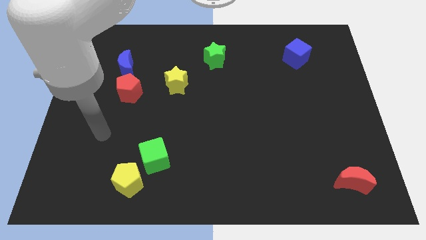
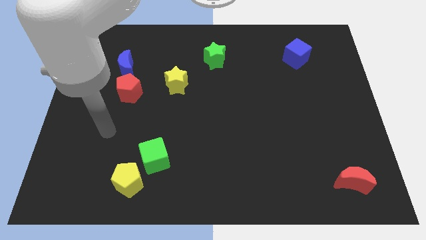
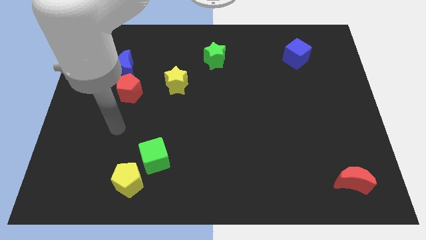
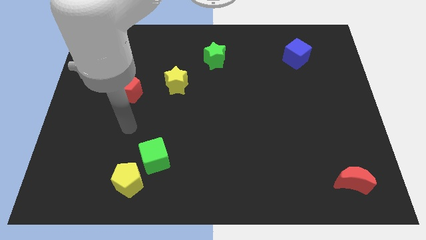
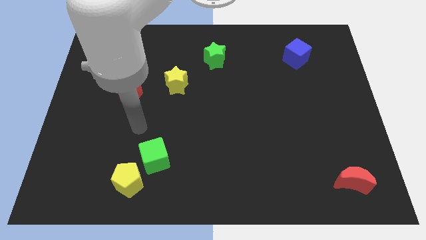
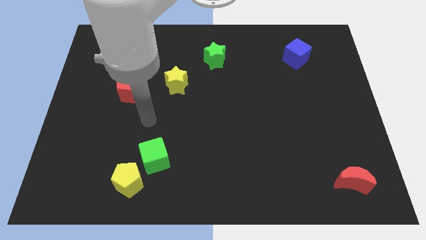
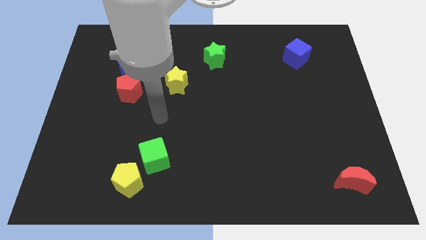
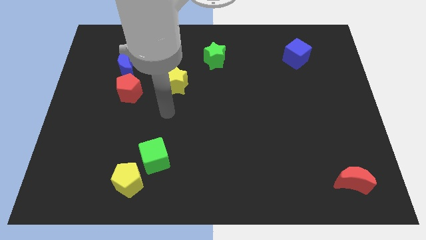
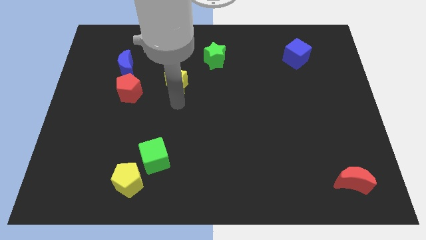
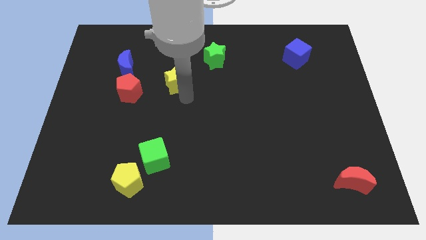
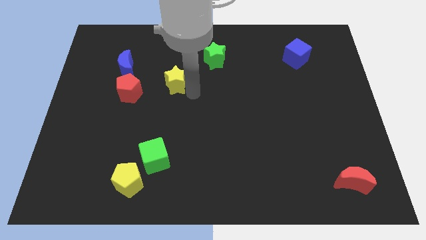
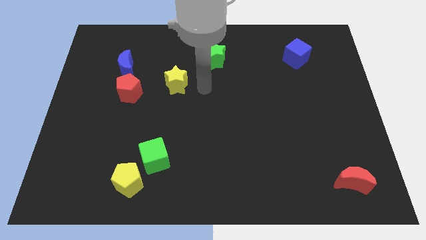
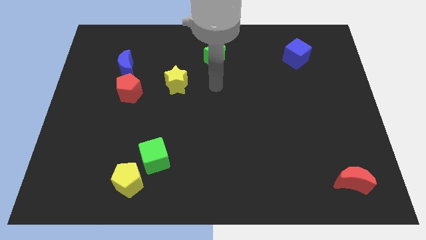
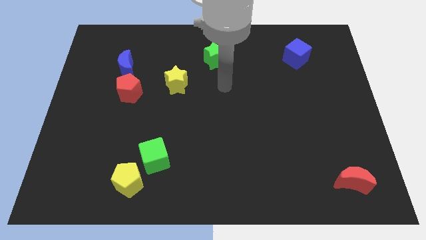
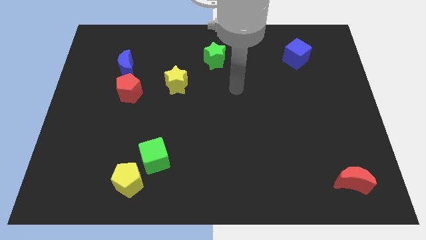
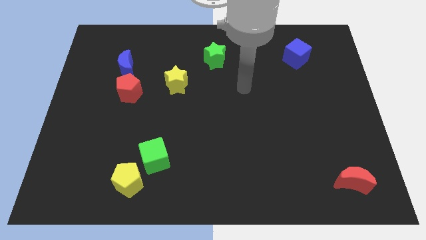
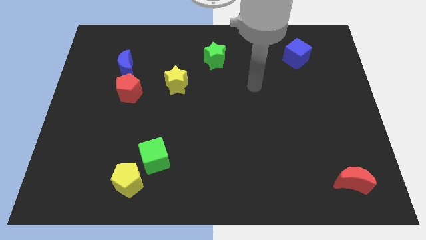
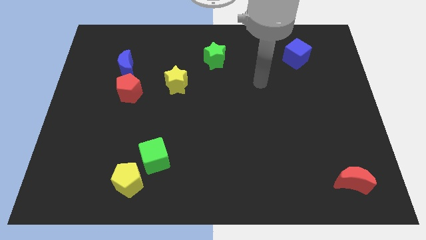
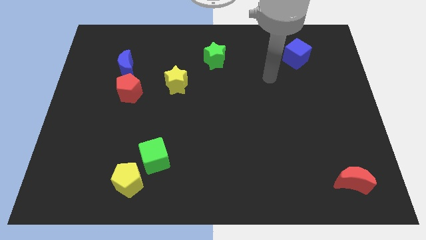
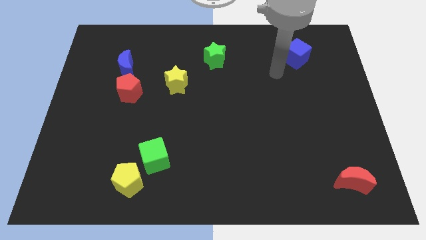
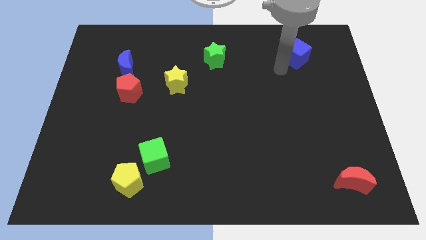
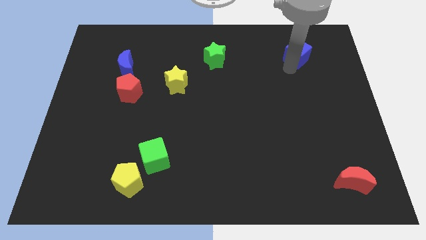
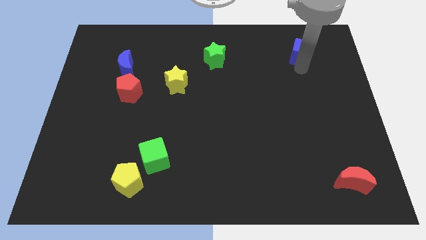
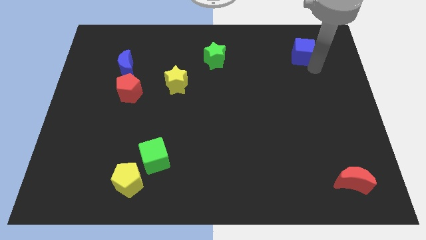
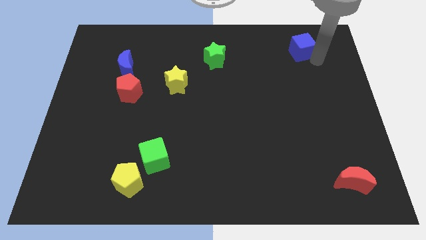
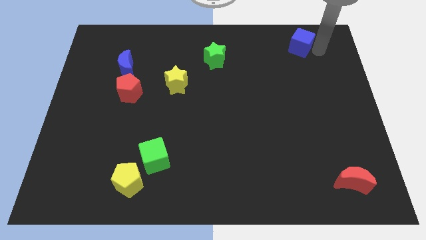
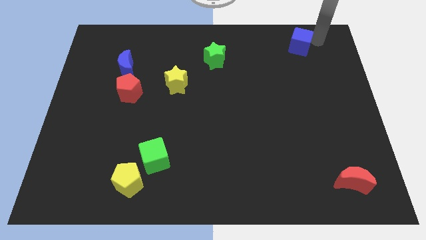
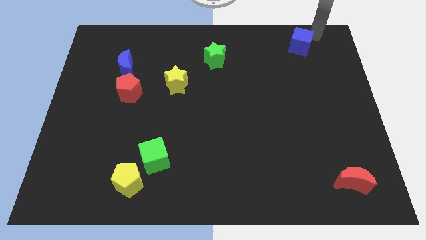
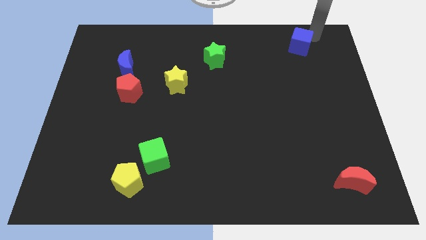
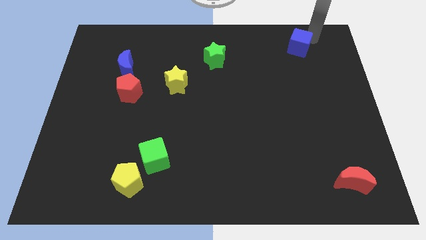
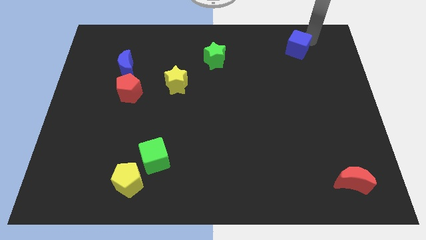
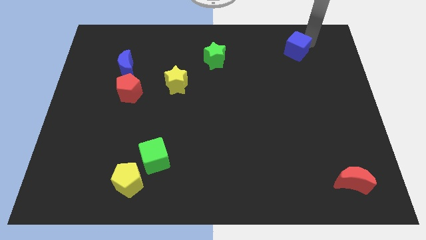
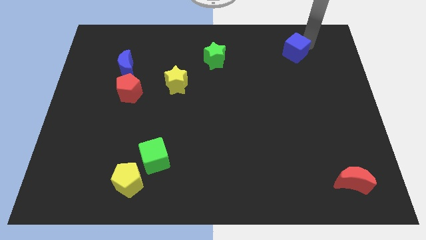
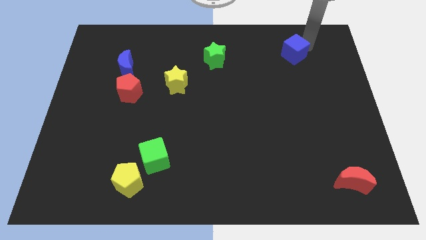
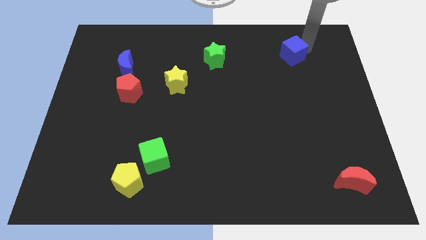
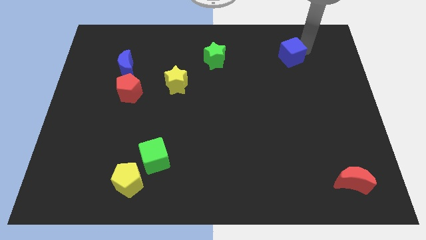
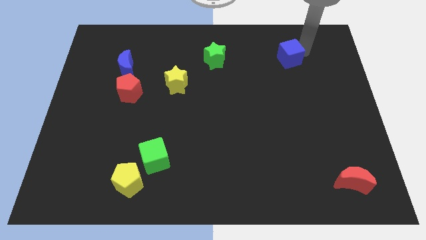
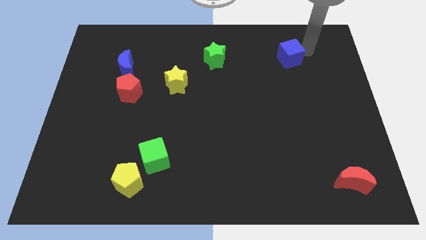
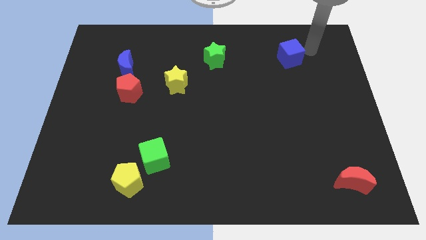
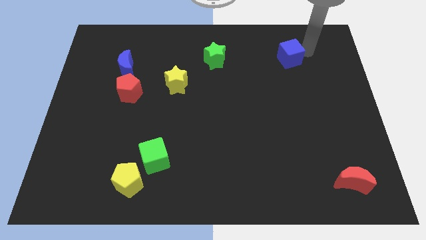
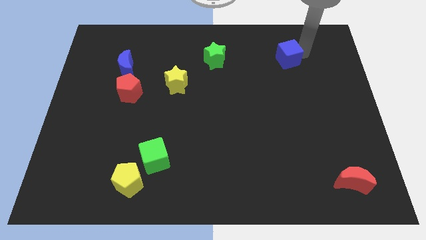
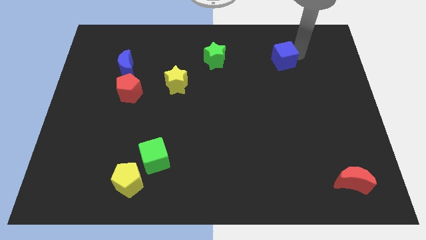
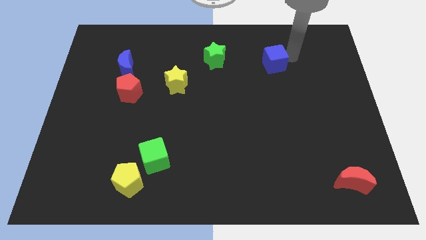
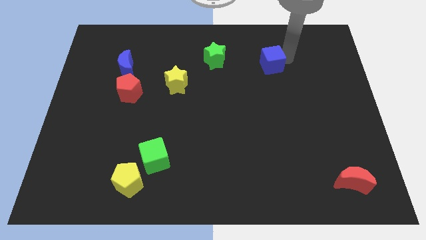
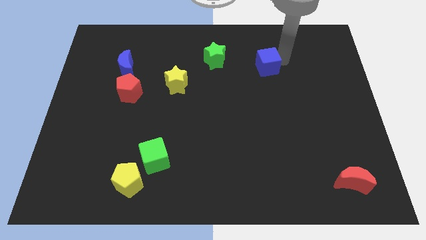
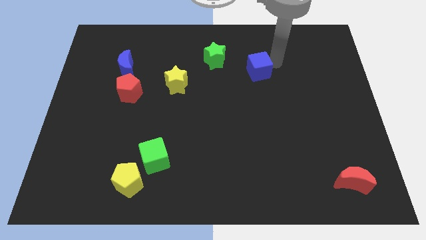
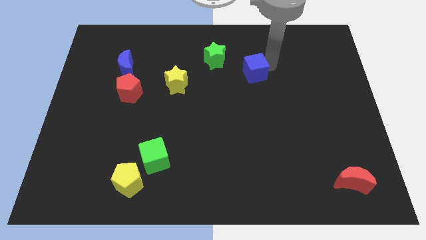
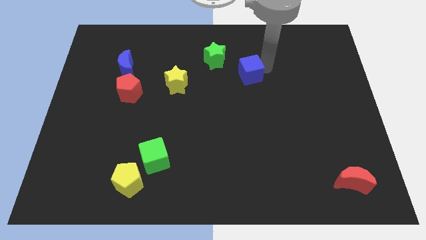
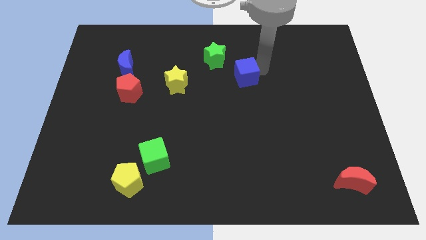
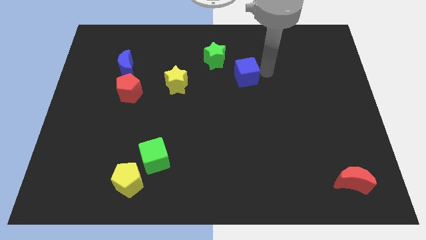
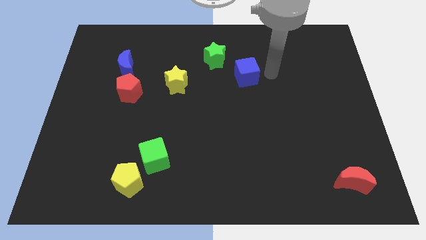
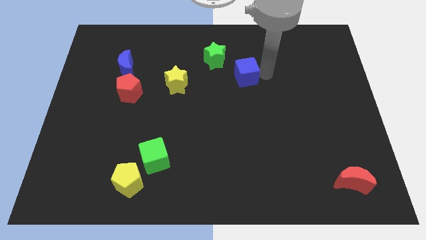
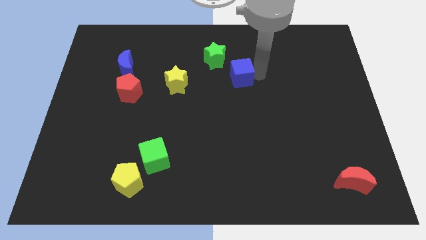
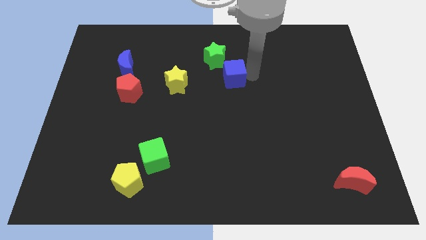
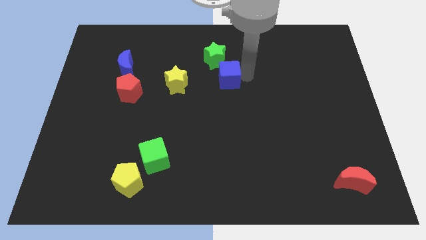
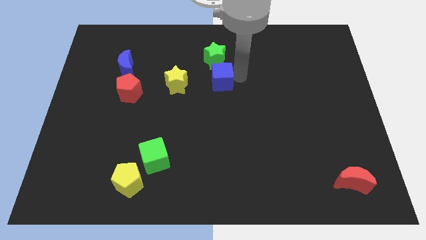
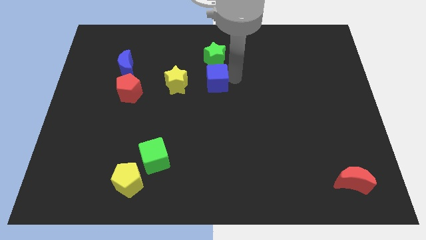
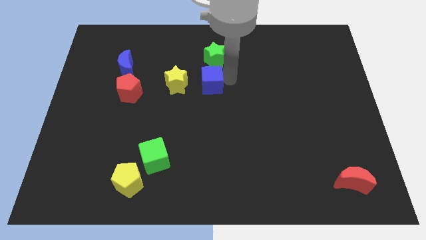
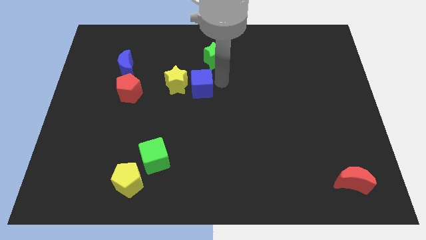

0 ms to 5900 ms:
move the blue cube close to the yellow star

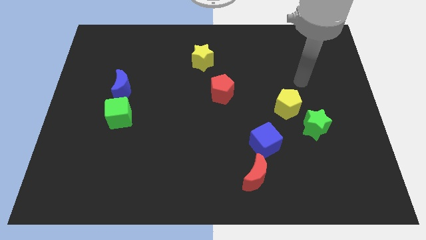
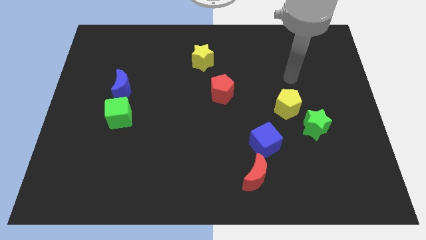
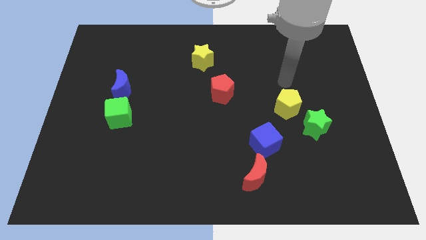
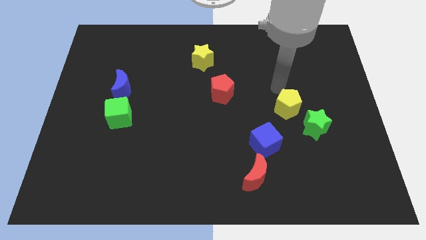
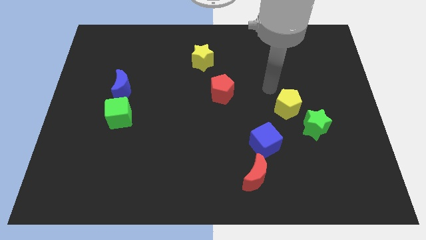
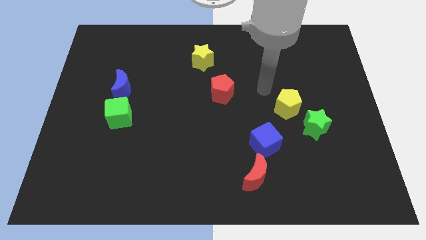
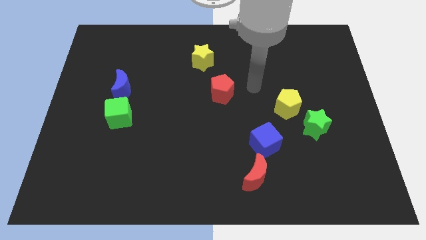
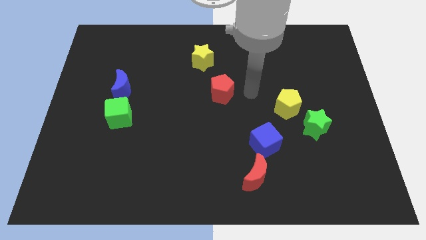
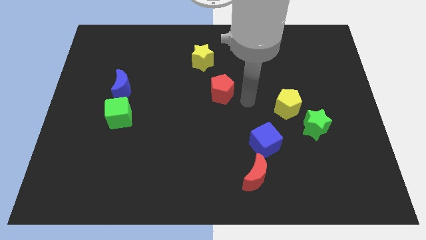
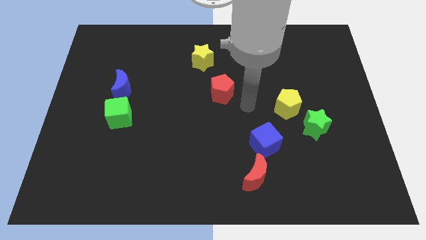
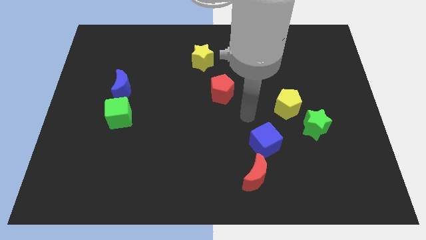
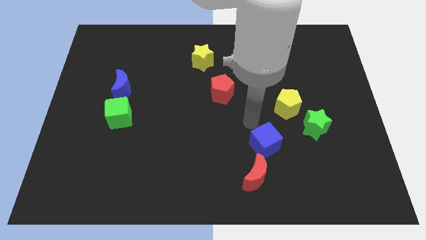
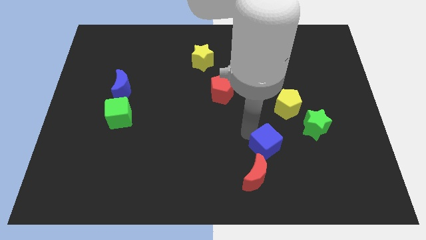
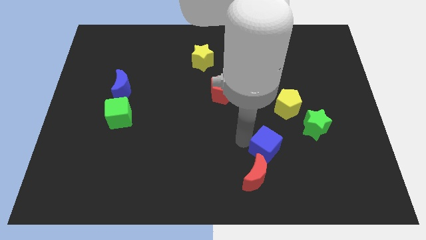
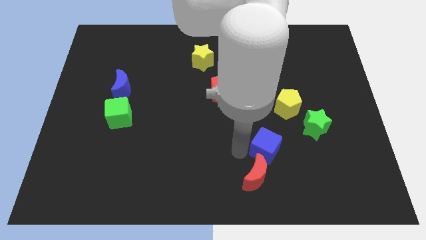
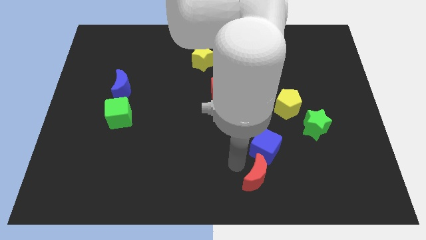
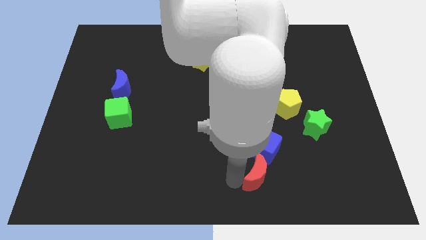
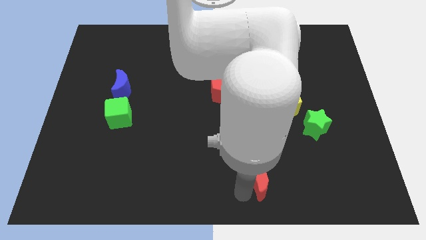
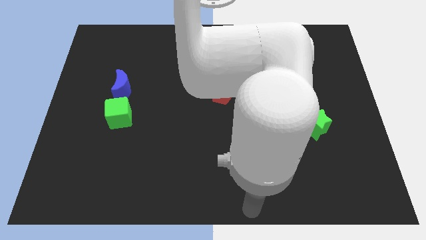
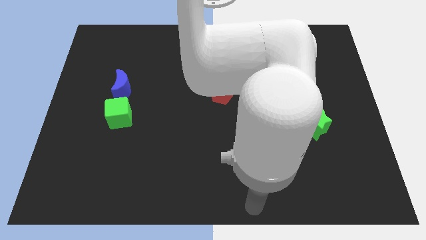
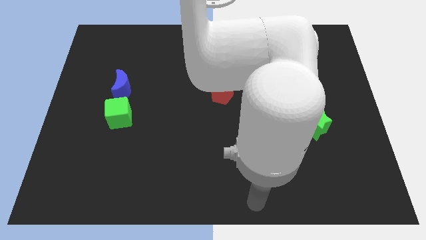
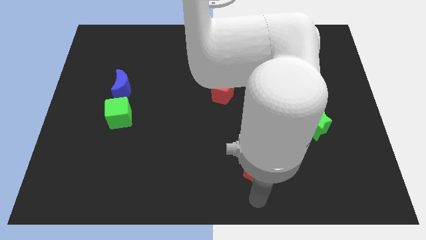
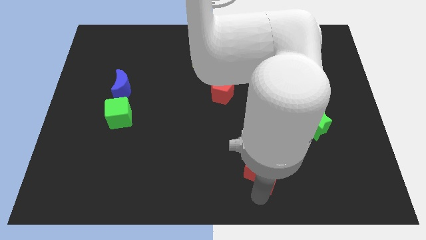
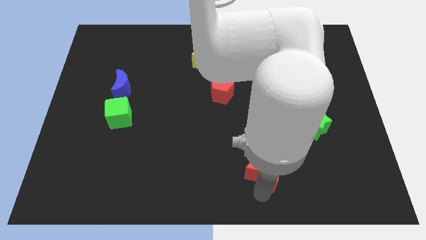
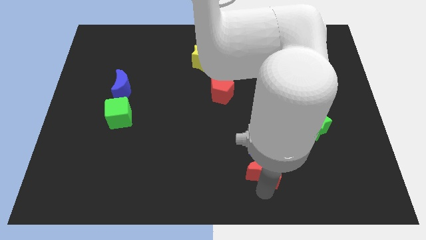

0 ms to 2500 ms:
move the red moon to the blue cube

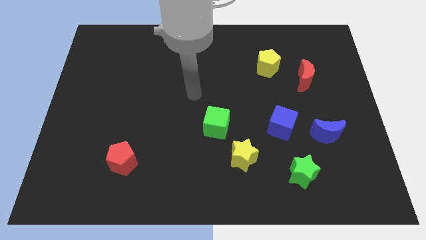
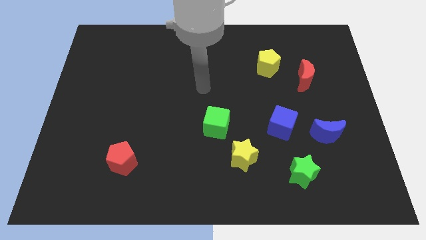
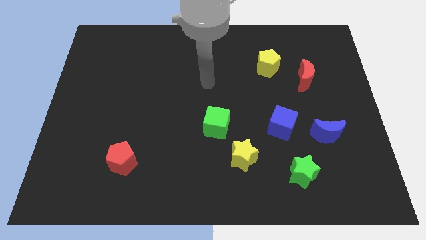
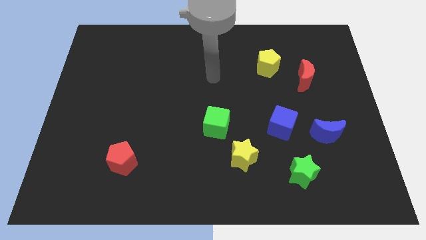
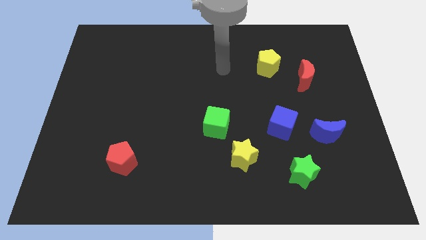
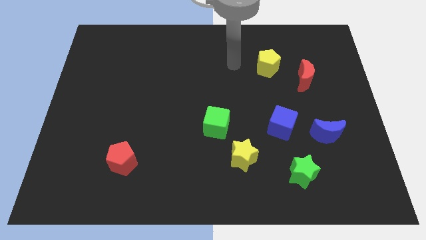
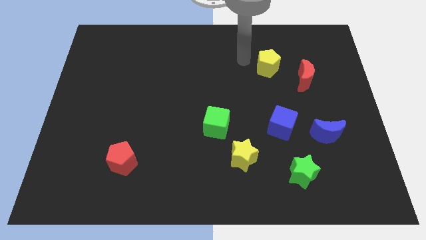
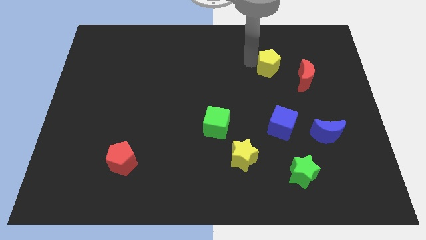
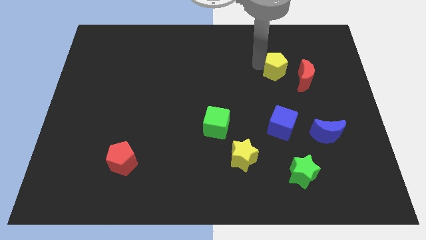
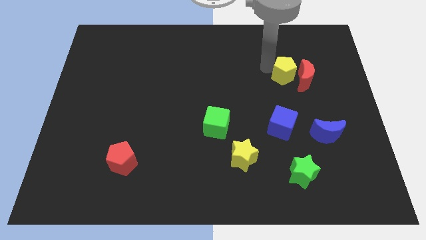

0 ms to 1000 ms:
push the yellow pentagon next to the red moon
